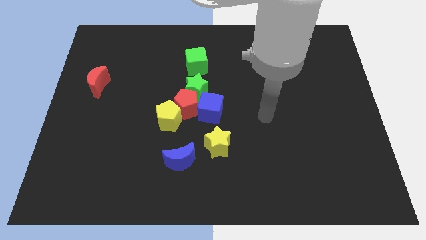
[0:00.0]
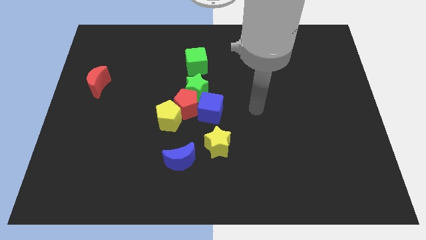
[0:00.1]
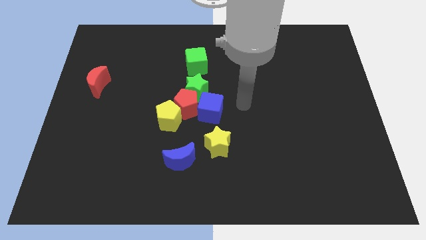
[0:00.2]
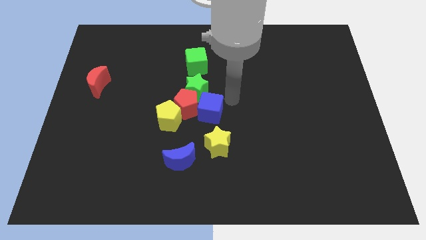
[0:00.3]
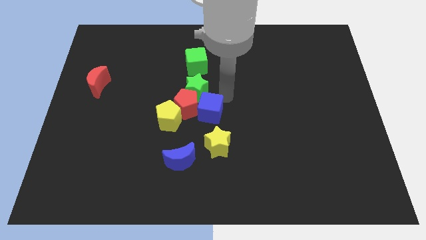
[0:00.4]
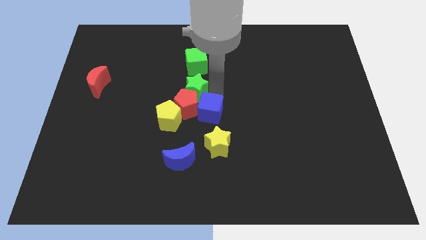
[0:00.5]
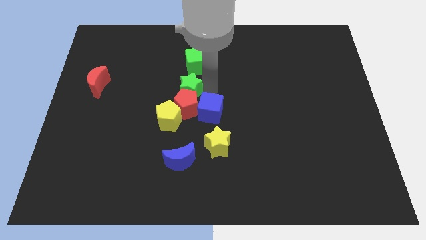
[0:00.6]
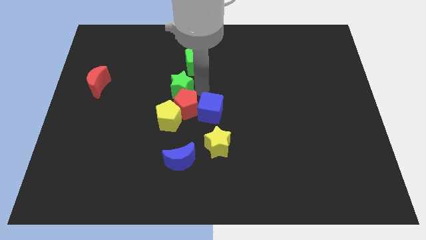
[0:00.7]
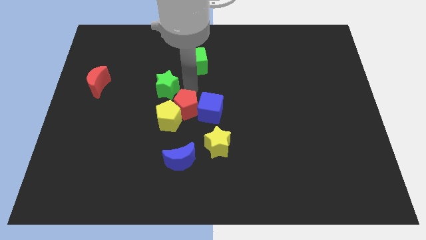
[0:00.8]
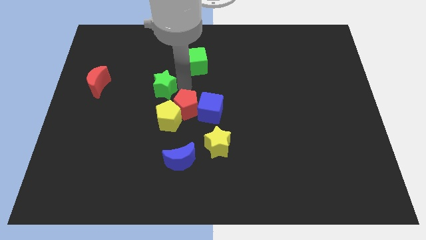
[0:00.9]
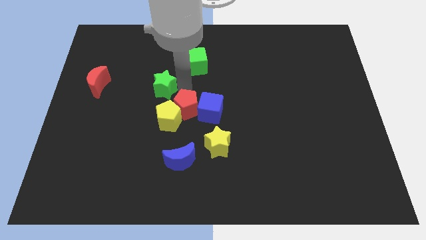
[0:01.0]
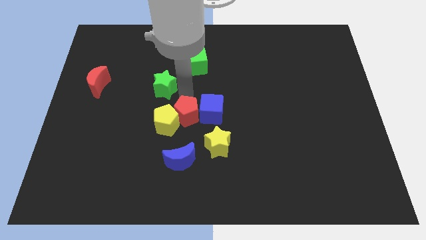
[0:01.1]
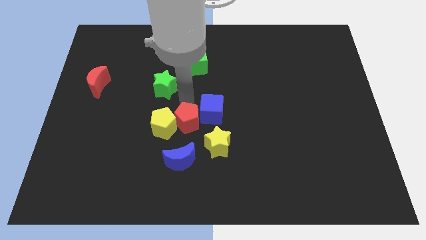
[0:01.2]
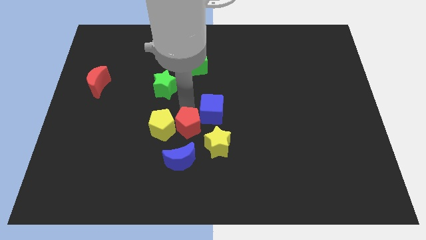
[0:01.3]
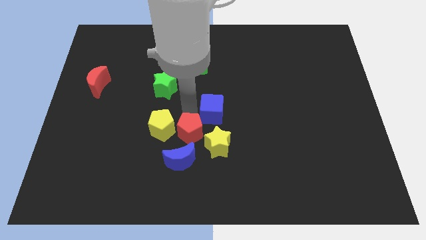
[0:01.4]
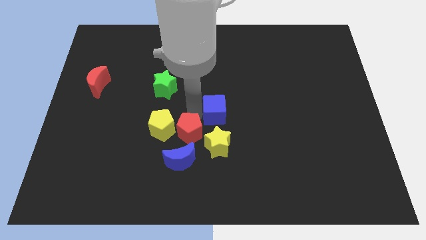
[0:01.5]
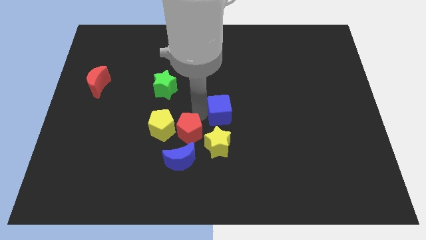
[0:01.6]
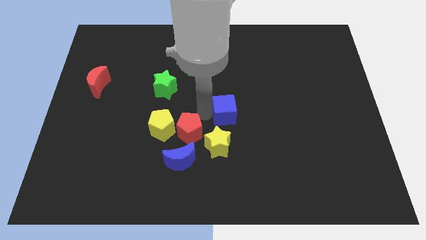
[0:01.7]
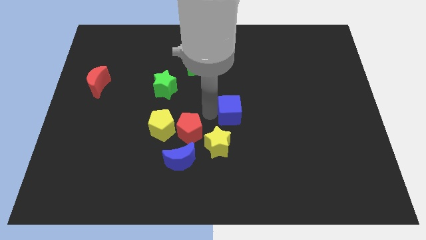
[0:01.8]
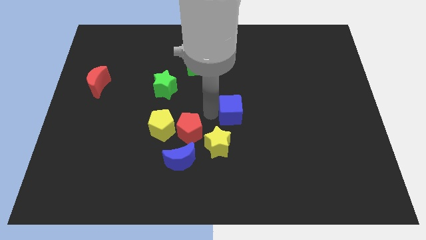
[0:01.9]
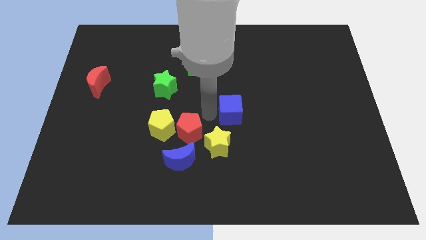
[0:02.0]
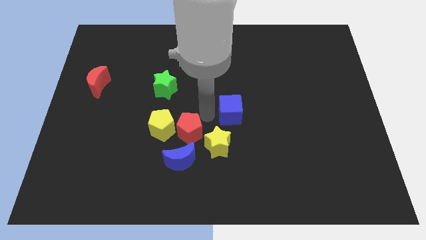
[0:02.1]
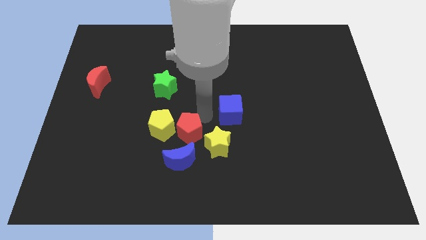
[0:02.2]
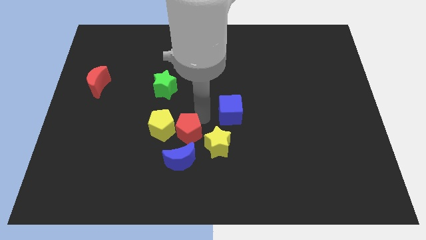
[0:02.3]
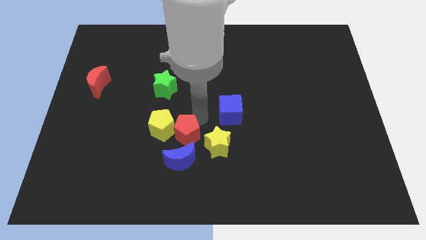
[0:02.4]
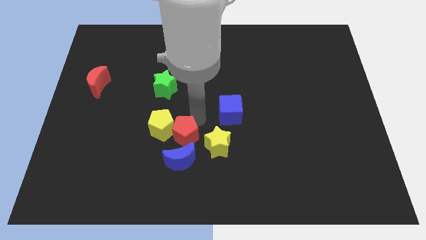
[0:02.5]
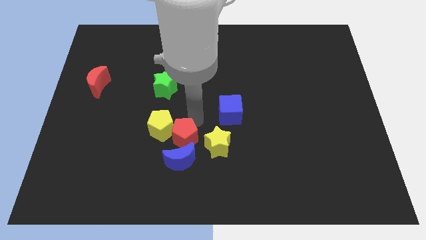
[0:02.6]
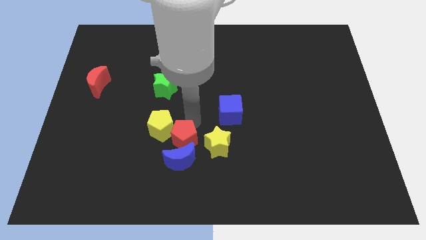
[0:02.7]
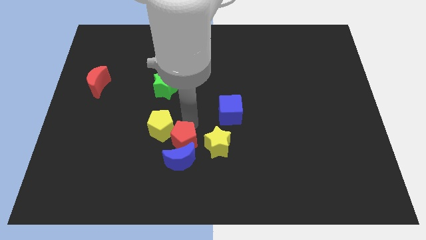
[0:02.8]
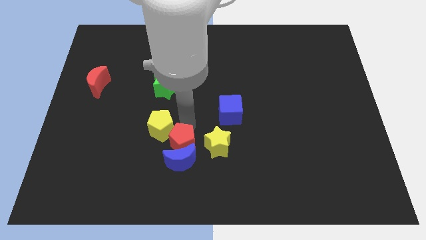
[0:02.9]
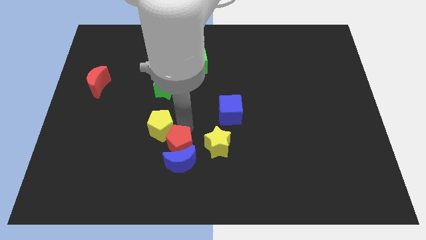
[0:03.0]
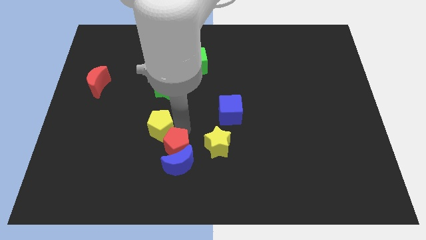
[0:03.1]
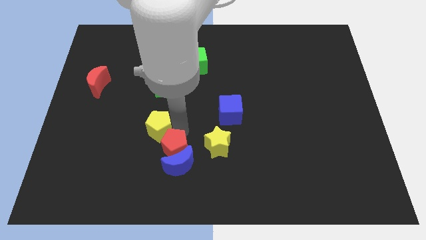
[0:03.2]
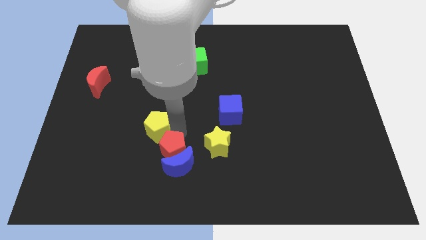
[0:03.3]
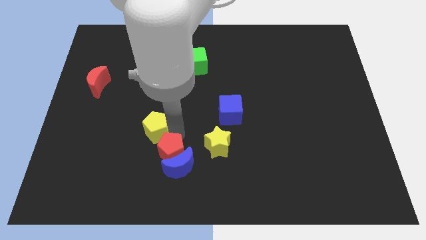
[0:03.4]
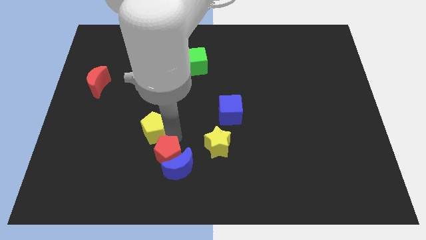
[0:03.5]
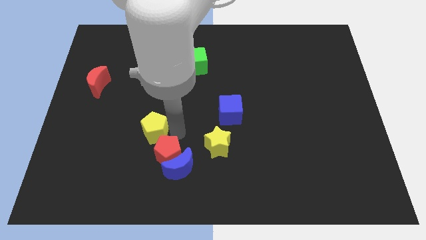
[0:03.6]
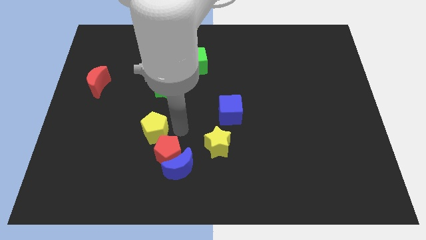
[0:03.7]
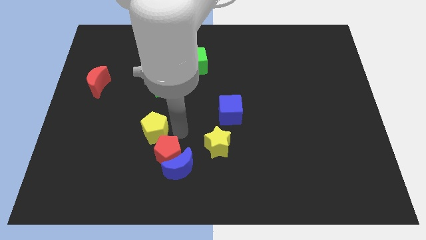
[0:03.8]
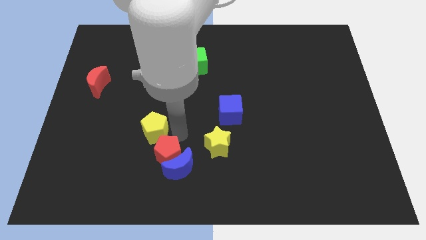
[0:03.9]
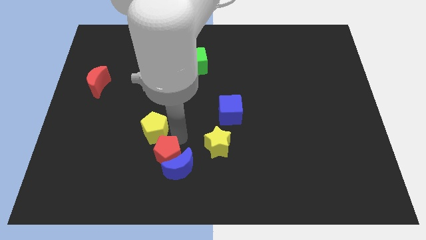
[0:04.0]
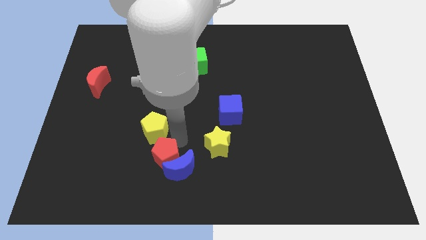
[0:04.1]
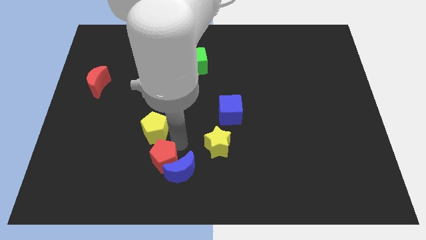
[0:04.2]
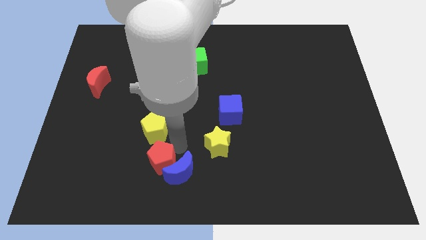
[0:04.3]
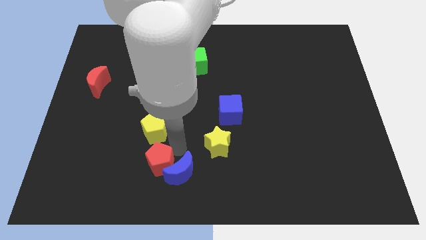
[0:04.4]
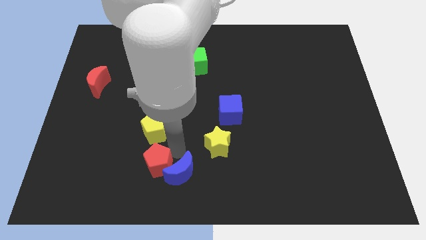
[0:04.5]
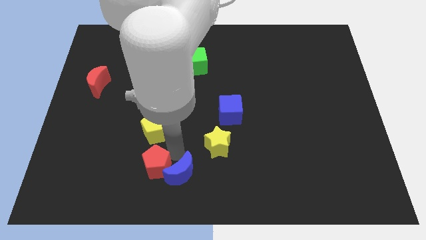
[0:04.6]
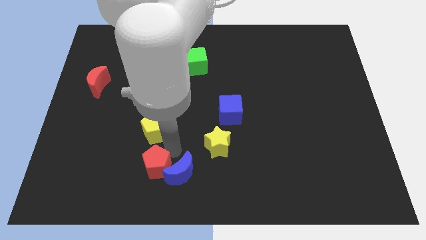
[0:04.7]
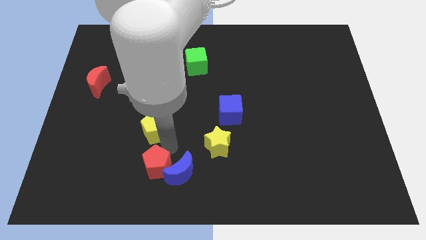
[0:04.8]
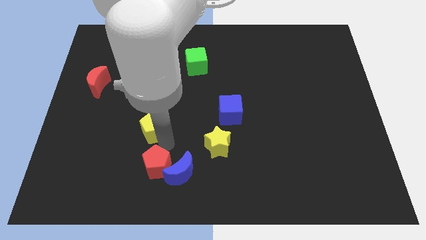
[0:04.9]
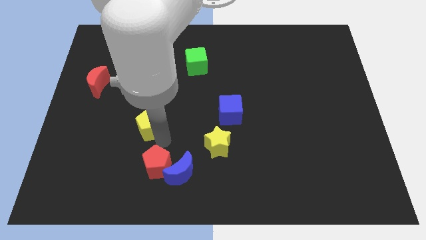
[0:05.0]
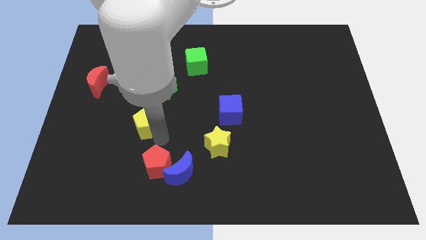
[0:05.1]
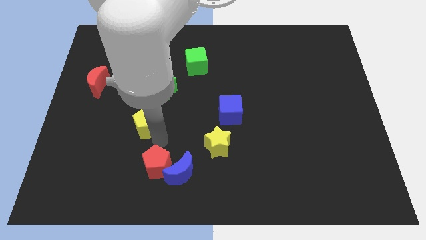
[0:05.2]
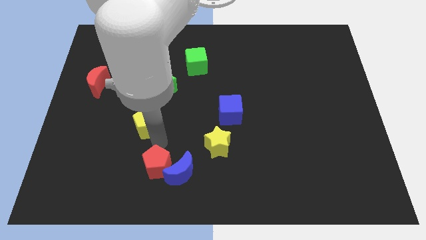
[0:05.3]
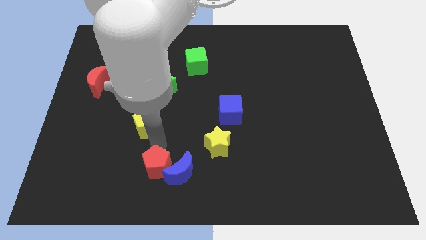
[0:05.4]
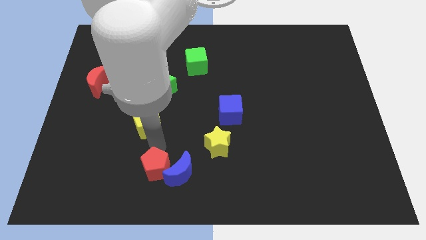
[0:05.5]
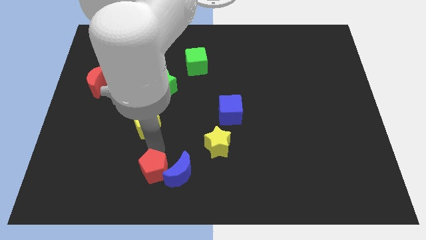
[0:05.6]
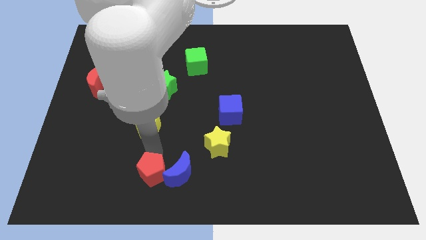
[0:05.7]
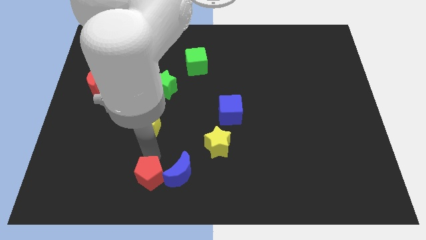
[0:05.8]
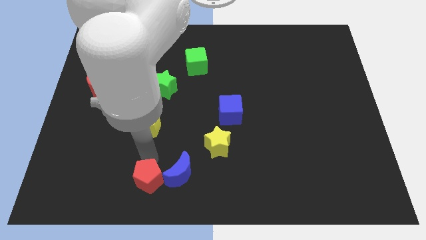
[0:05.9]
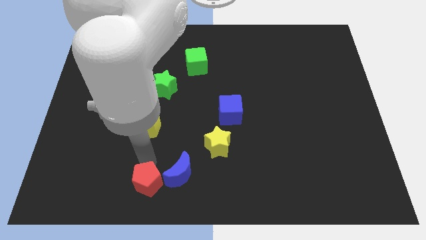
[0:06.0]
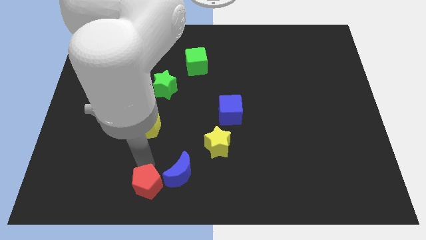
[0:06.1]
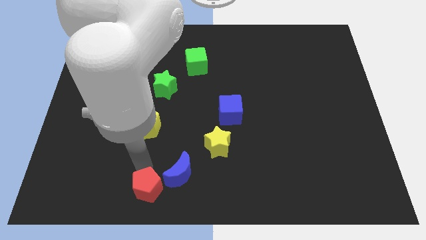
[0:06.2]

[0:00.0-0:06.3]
slide the red pentagon to the bottom side

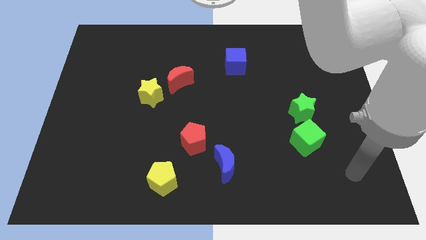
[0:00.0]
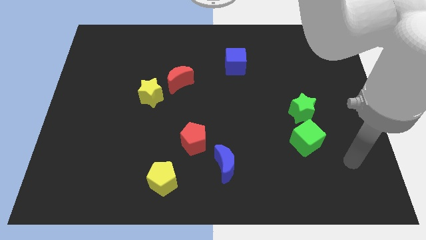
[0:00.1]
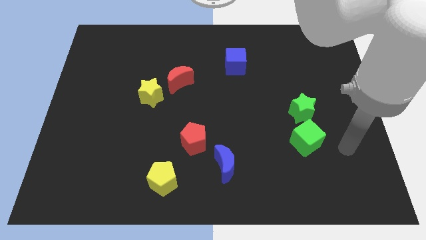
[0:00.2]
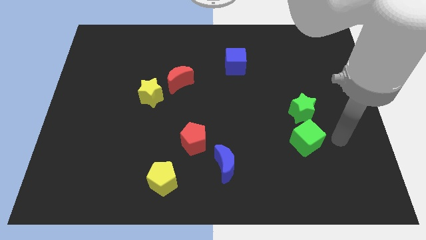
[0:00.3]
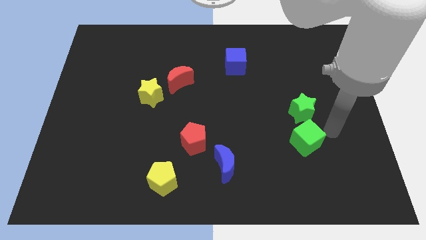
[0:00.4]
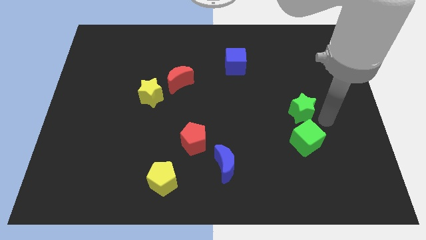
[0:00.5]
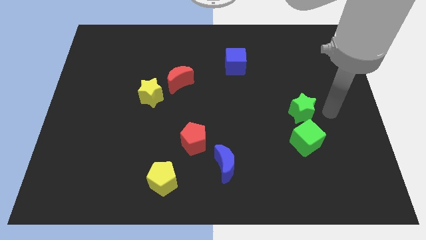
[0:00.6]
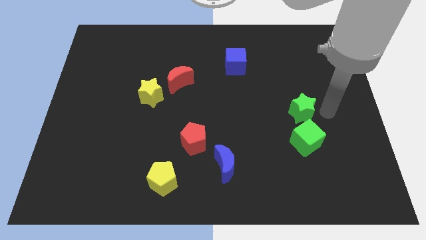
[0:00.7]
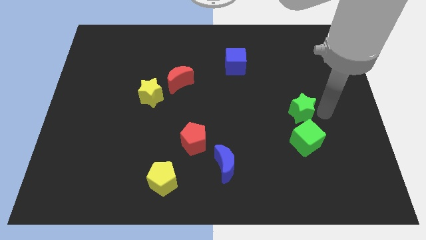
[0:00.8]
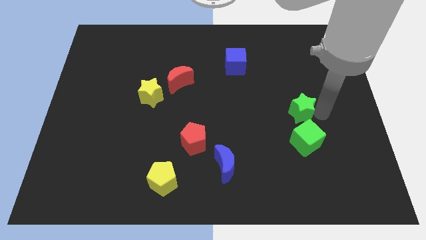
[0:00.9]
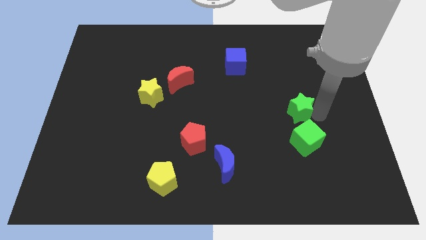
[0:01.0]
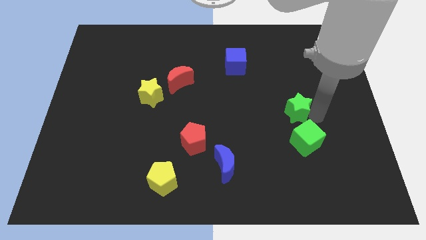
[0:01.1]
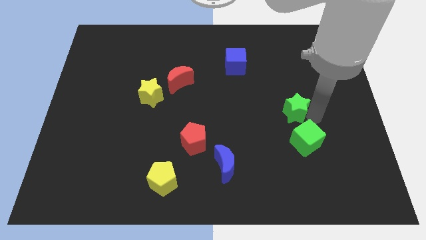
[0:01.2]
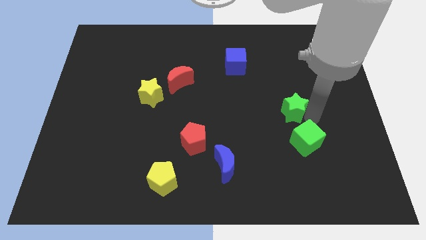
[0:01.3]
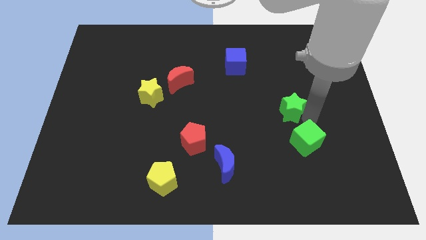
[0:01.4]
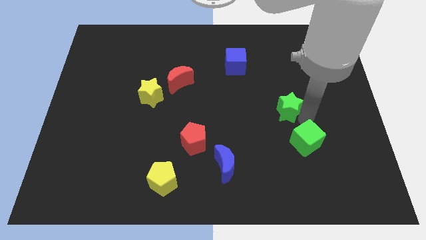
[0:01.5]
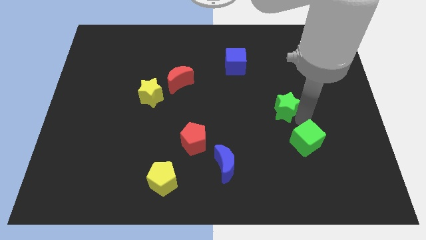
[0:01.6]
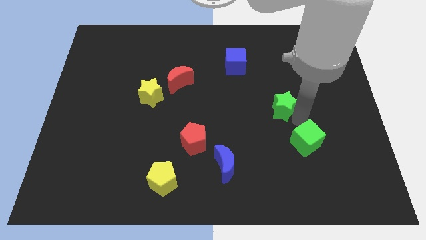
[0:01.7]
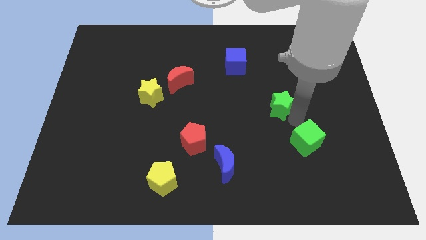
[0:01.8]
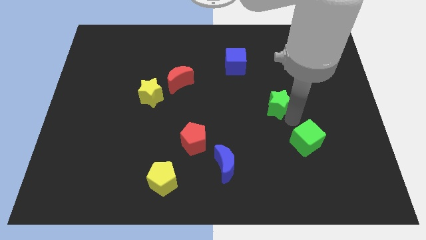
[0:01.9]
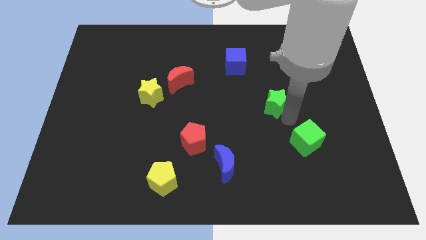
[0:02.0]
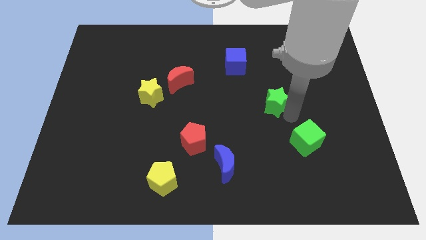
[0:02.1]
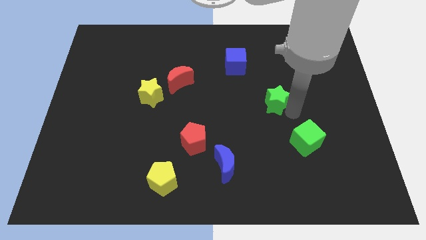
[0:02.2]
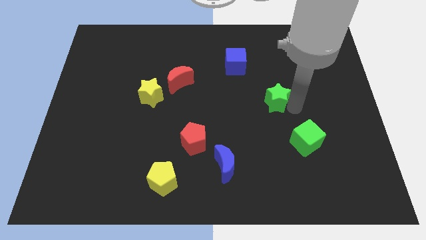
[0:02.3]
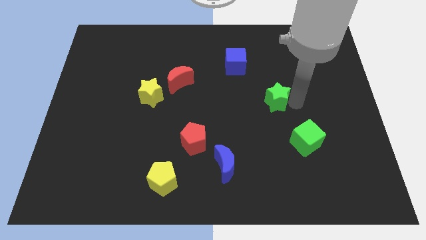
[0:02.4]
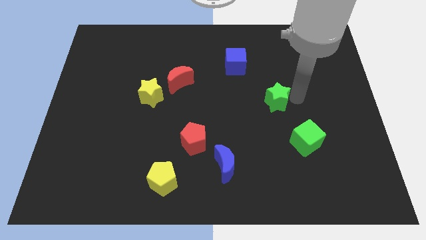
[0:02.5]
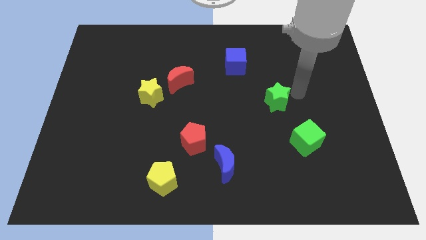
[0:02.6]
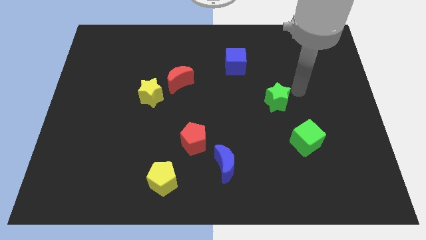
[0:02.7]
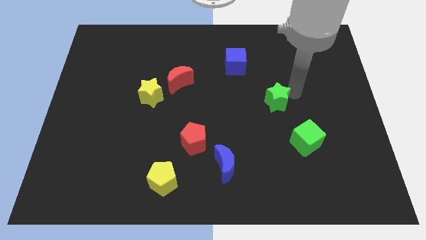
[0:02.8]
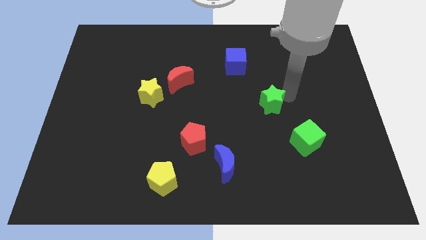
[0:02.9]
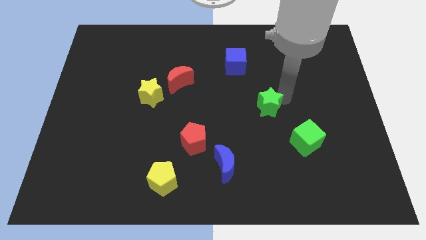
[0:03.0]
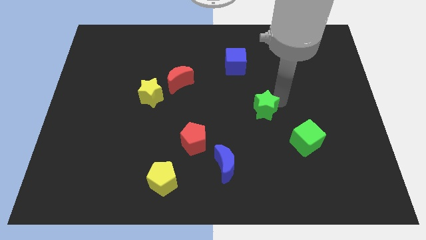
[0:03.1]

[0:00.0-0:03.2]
move the green star to the middle of the board
